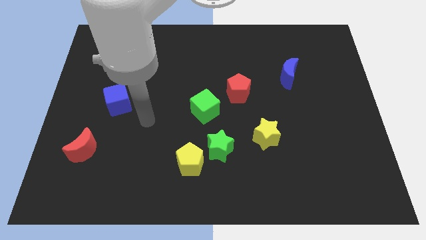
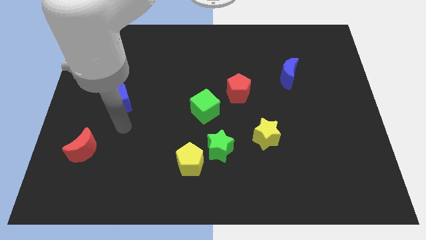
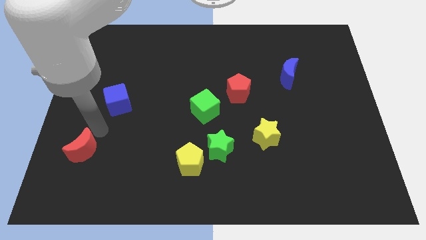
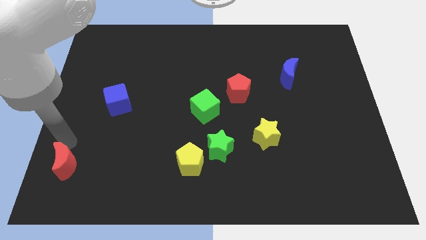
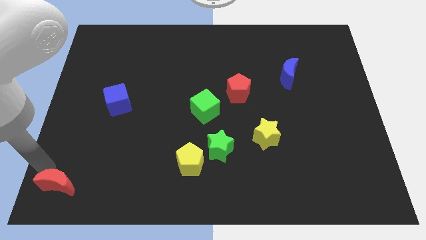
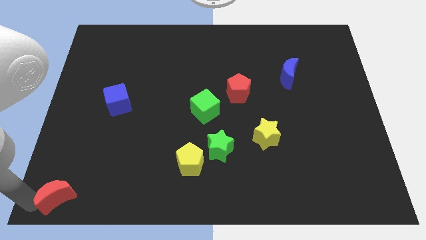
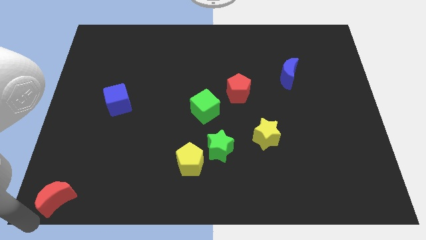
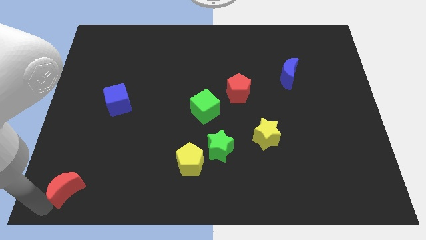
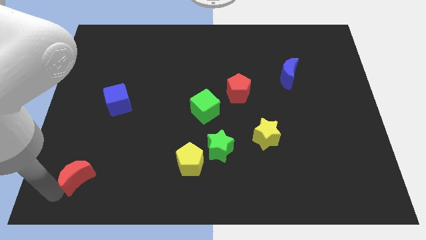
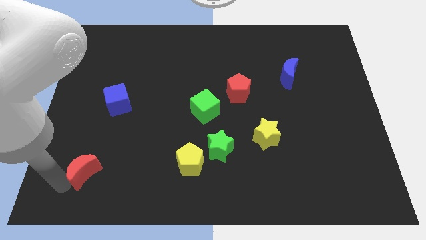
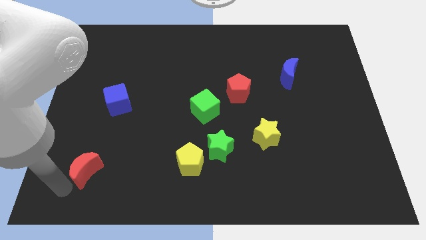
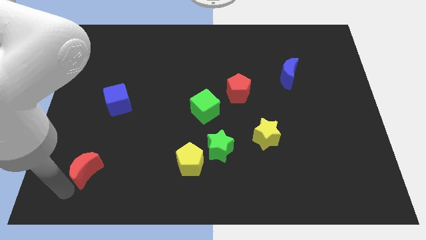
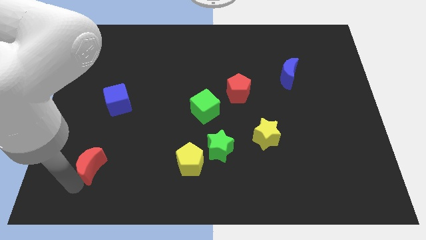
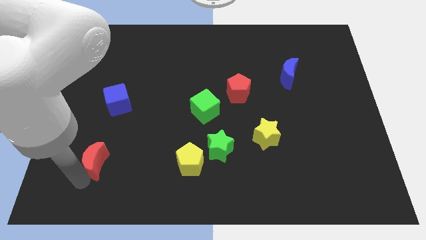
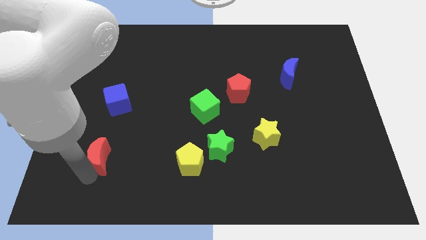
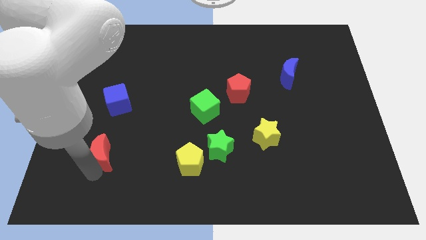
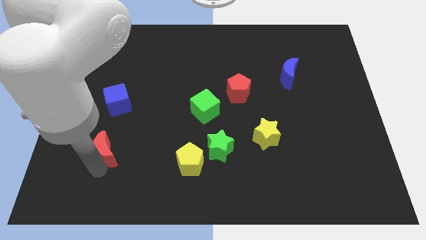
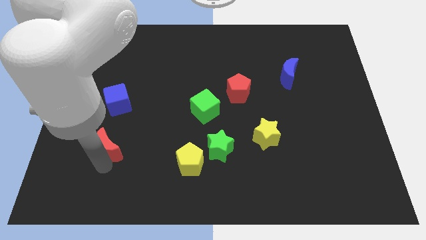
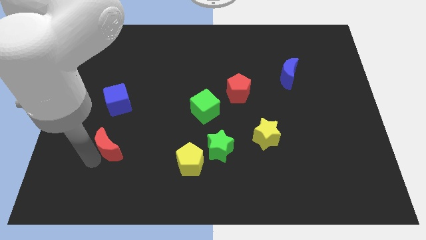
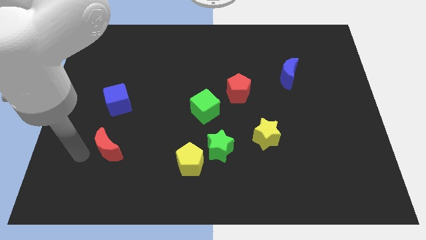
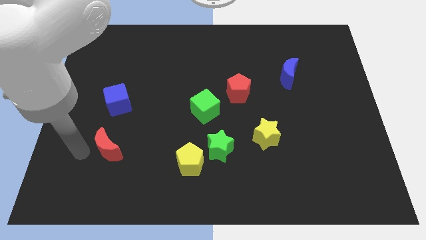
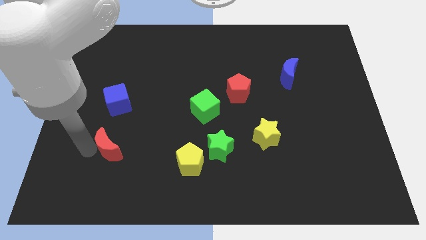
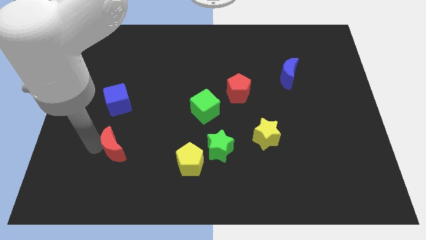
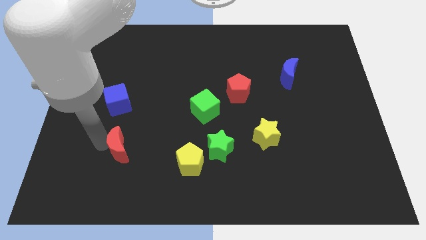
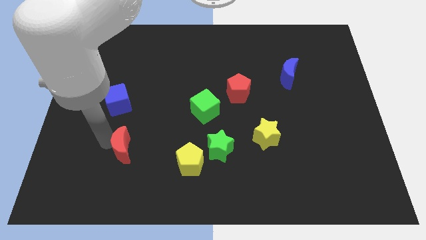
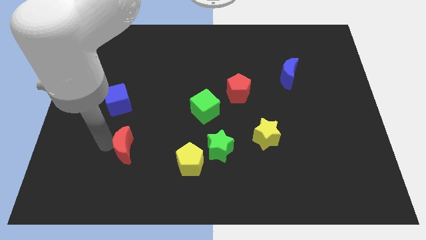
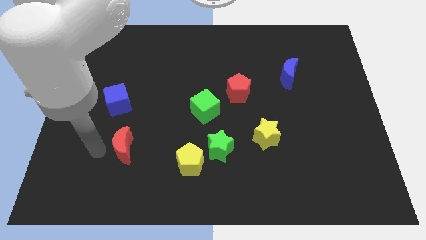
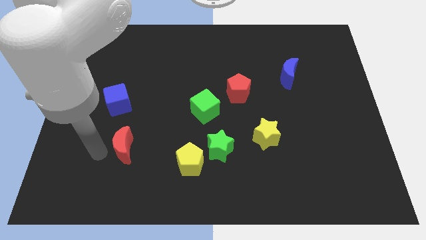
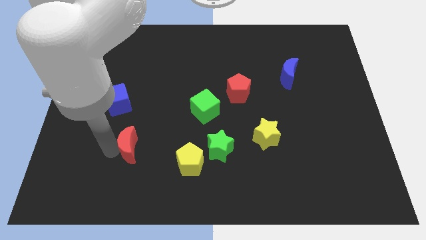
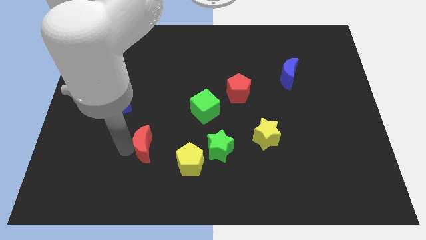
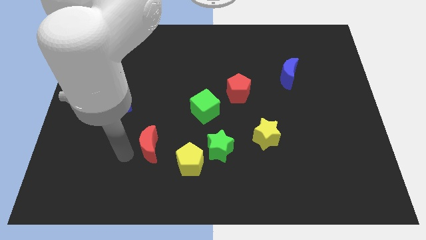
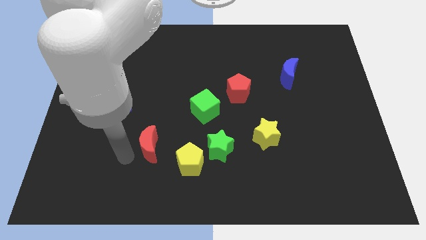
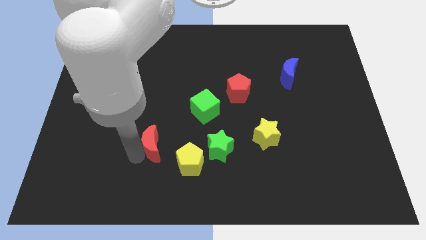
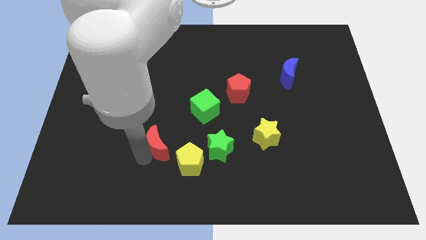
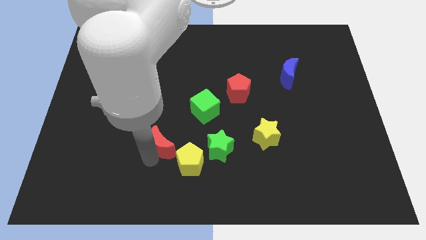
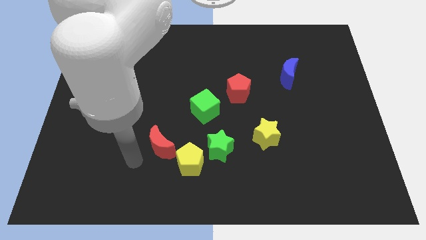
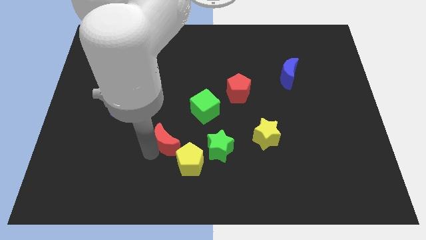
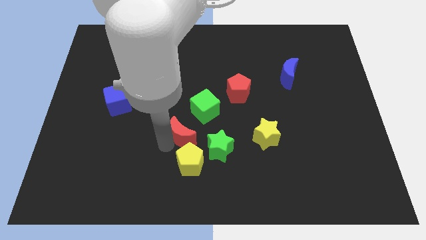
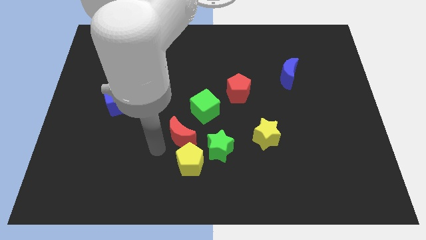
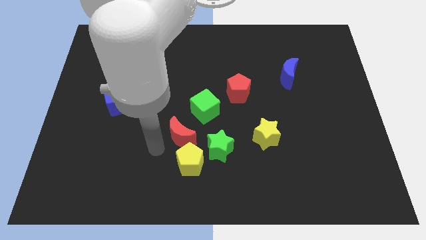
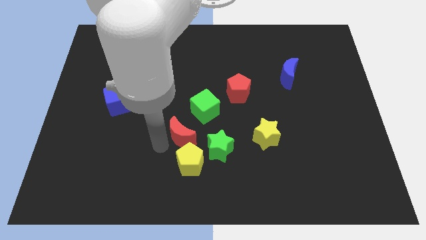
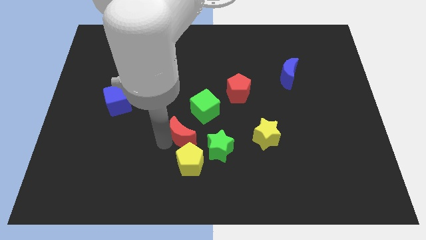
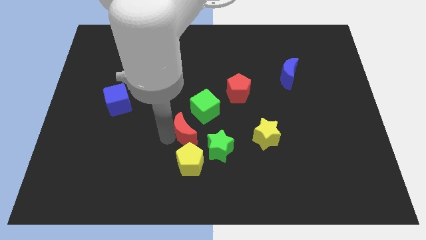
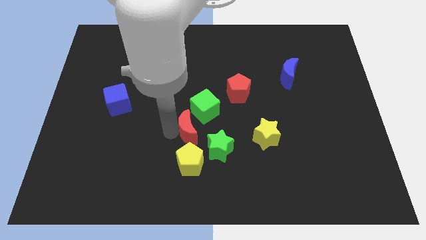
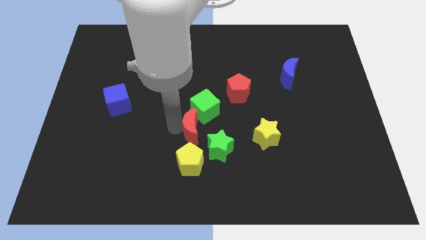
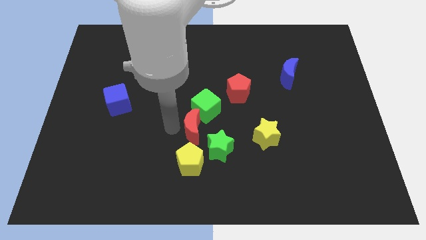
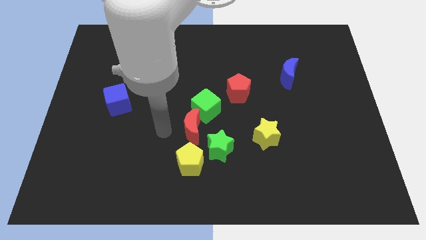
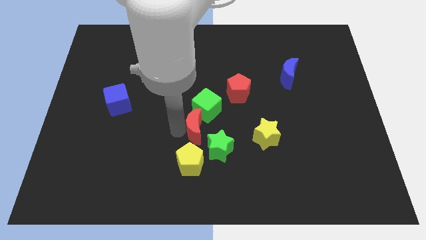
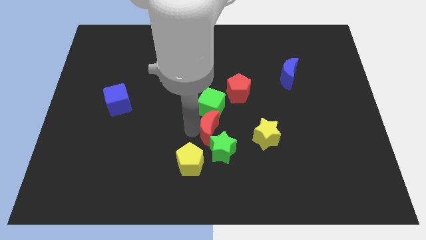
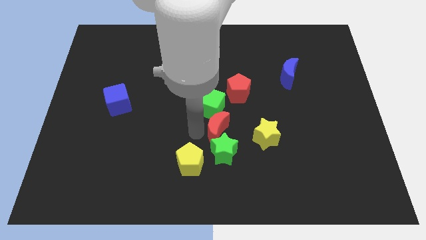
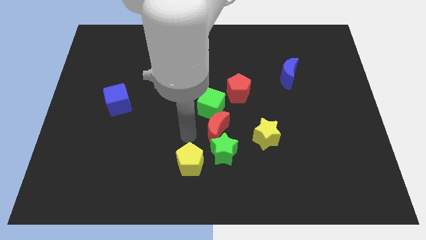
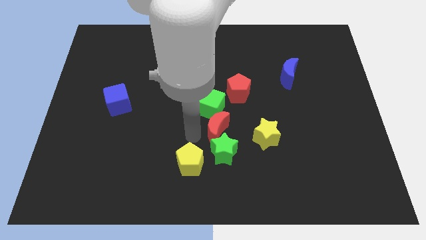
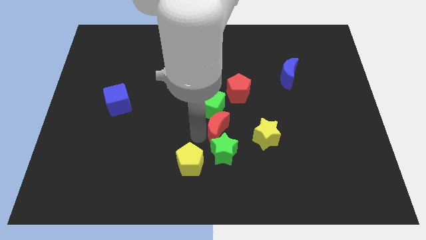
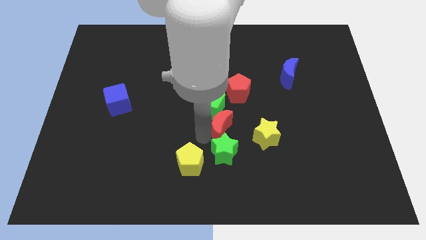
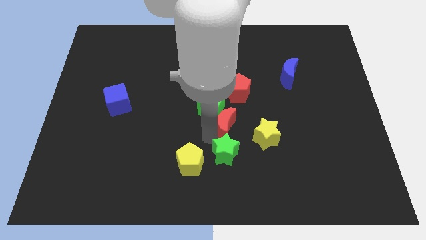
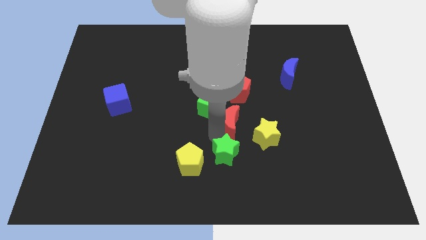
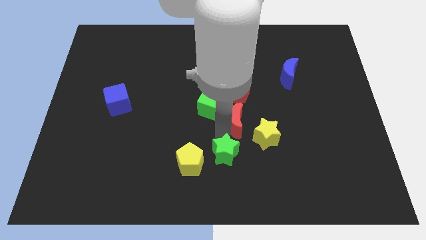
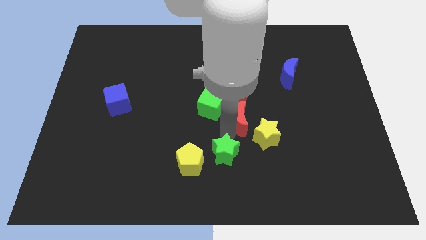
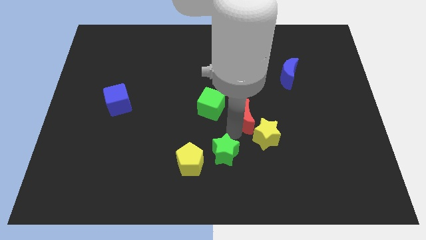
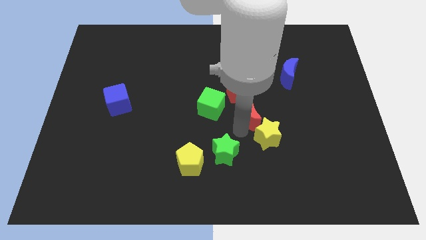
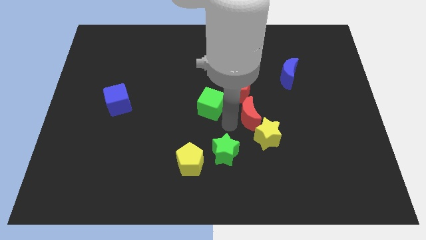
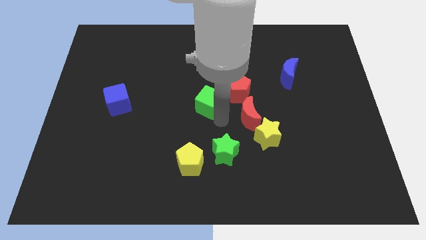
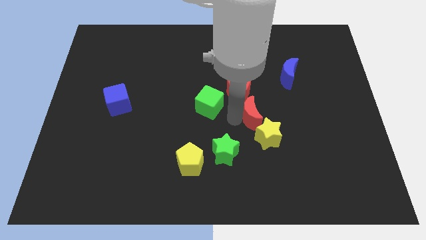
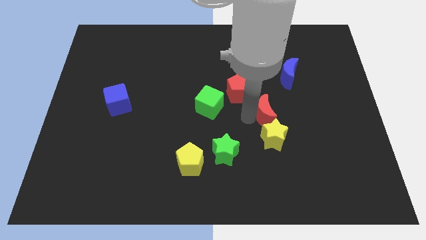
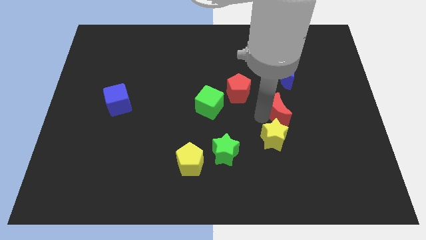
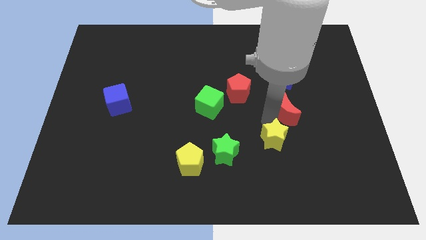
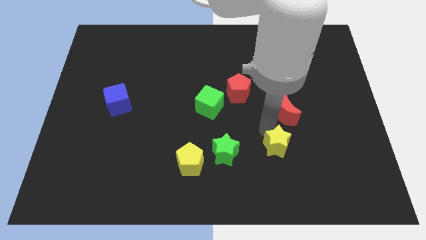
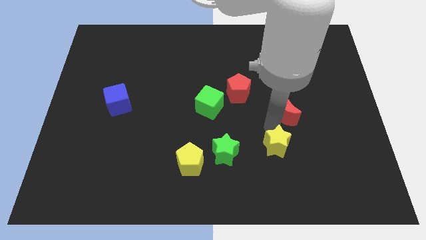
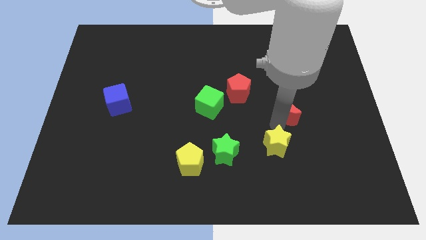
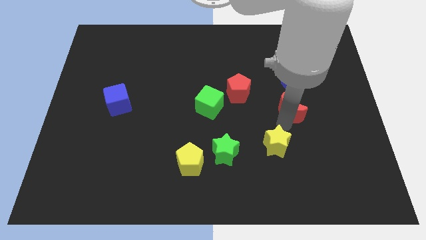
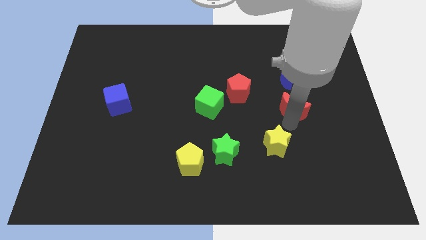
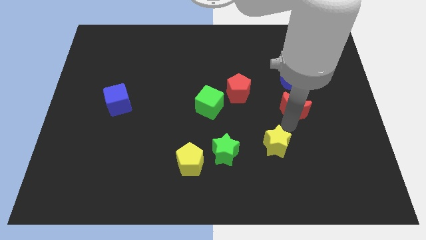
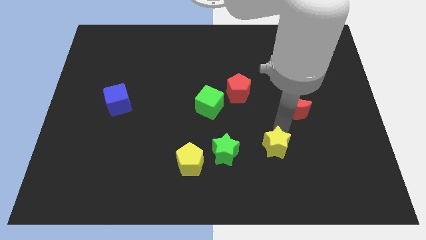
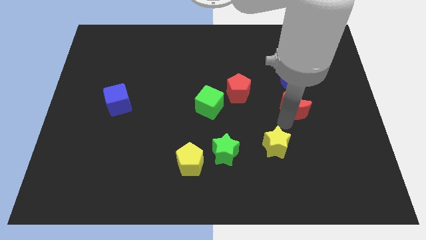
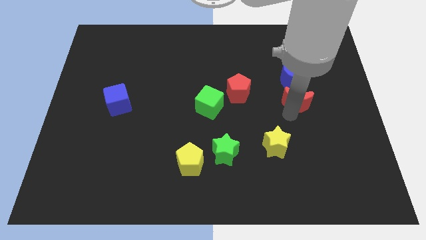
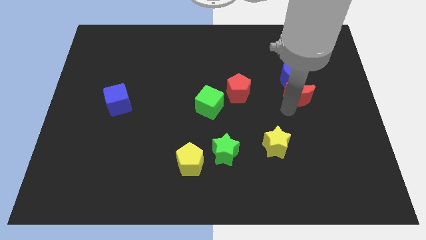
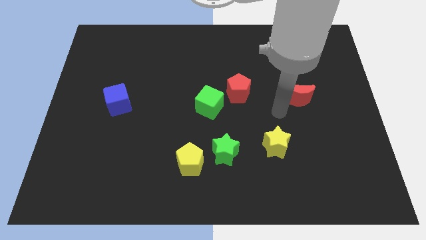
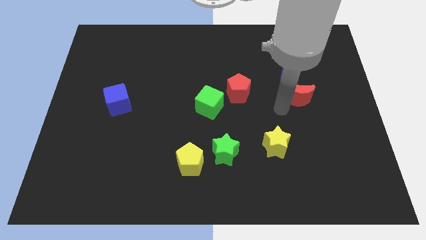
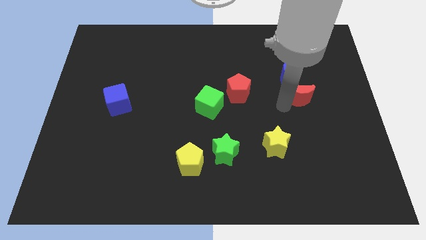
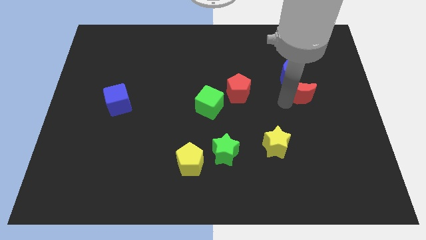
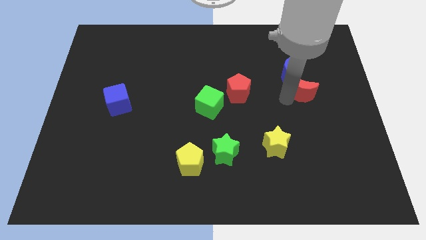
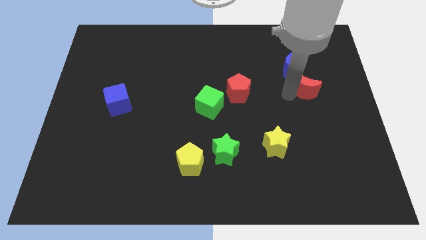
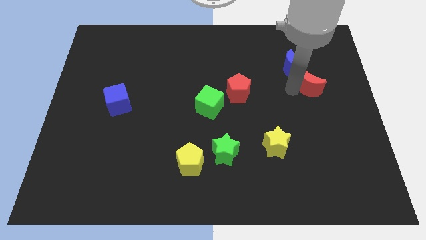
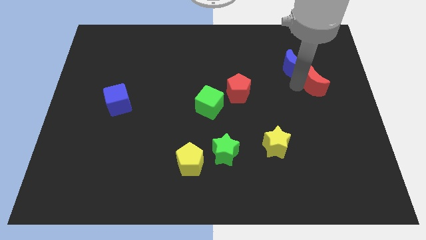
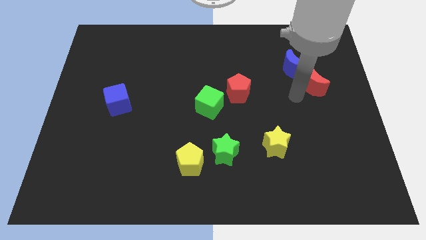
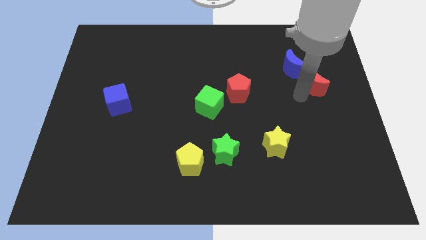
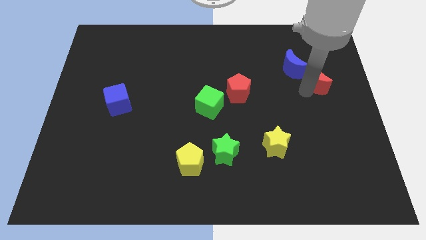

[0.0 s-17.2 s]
move the red moon to the right of the blue moon
